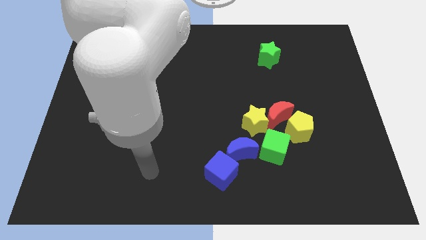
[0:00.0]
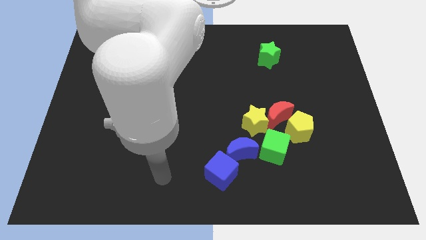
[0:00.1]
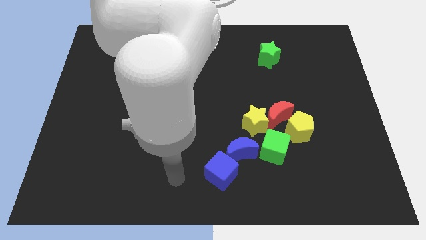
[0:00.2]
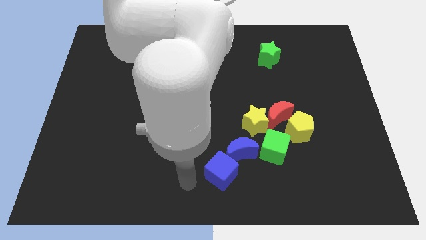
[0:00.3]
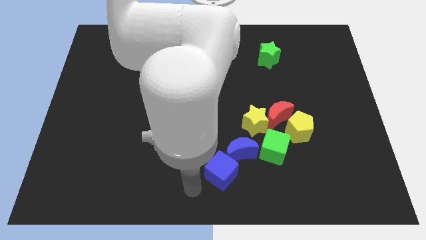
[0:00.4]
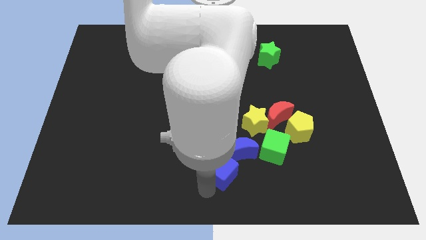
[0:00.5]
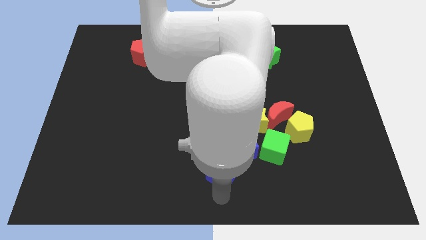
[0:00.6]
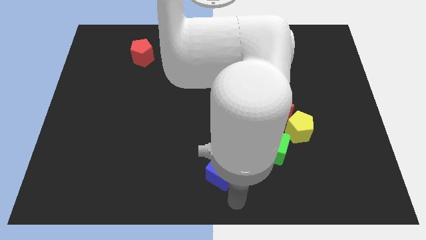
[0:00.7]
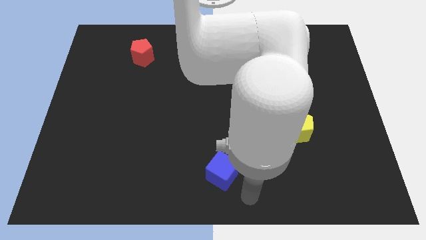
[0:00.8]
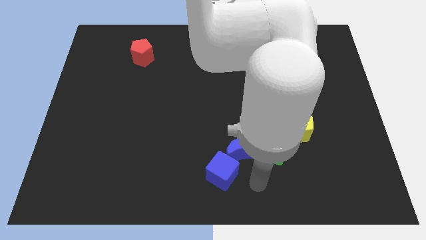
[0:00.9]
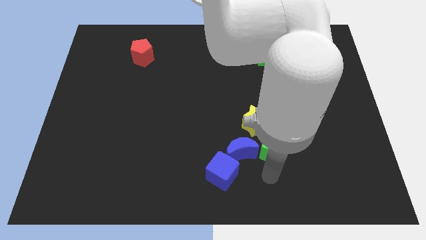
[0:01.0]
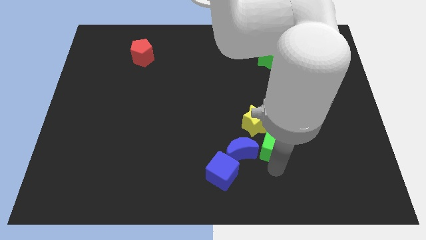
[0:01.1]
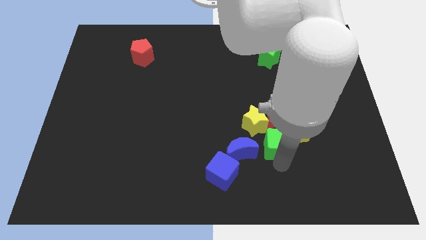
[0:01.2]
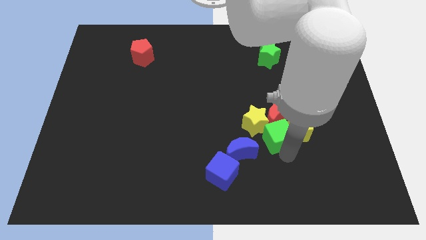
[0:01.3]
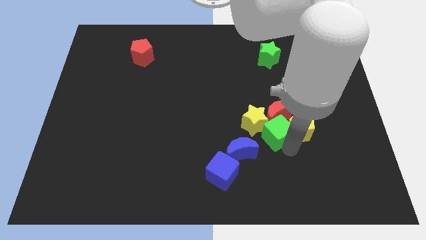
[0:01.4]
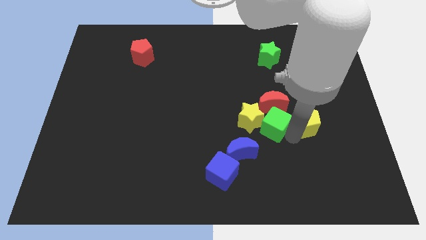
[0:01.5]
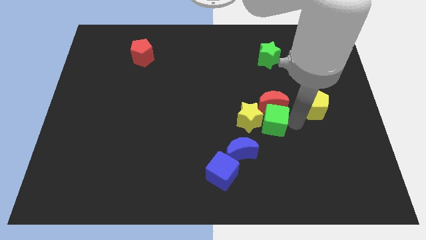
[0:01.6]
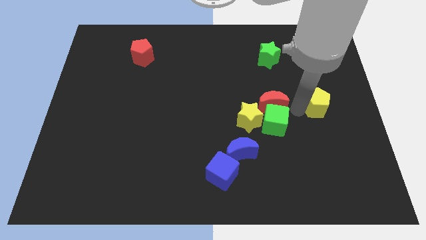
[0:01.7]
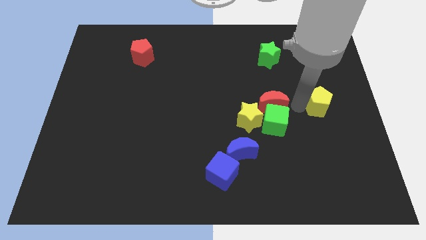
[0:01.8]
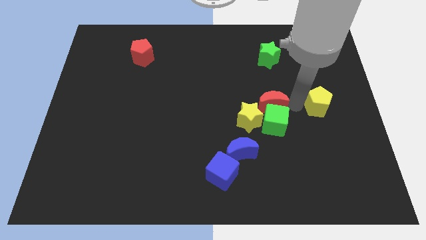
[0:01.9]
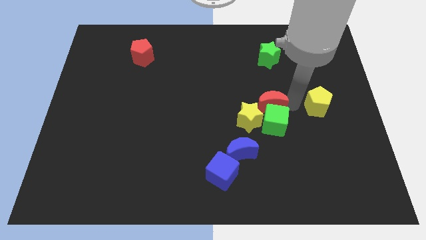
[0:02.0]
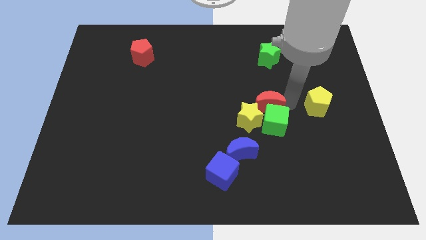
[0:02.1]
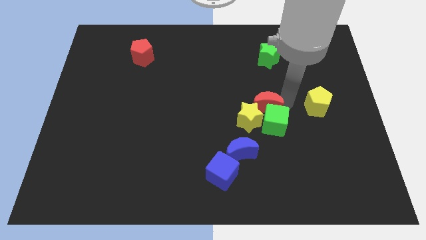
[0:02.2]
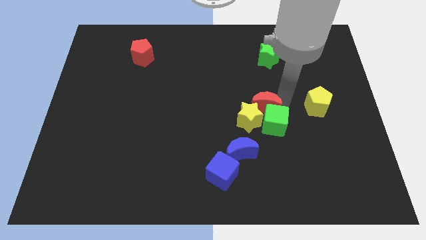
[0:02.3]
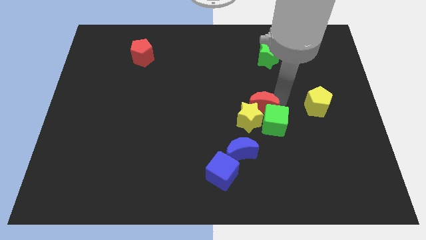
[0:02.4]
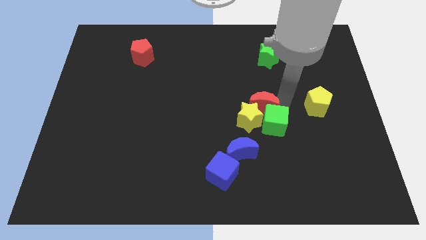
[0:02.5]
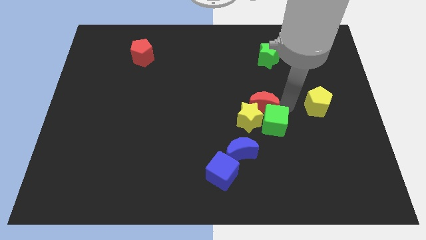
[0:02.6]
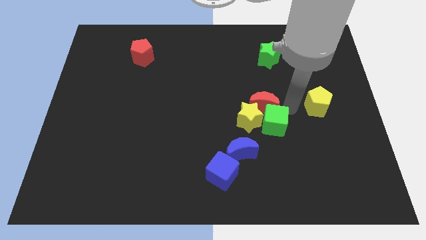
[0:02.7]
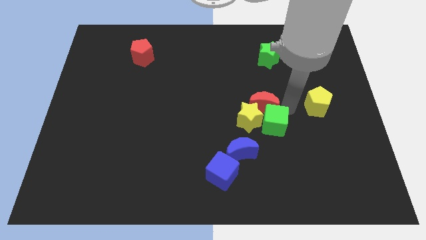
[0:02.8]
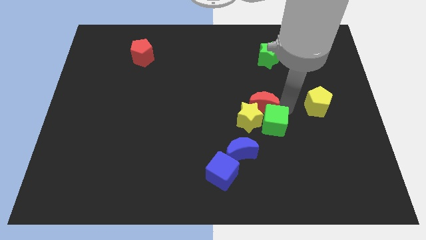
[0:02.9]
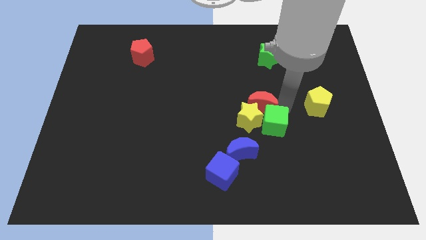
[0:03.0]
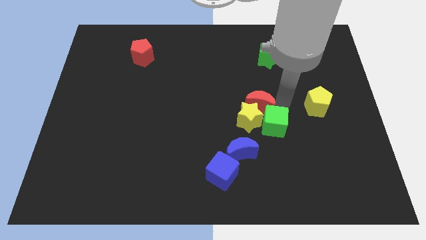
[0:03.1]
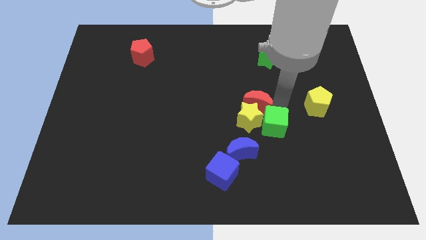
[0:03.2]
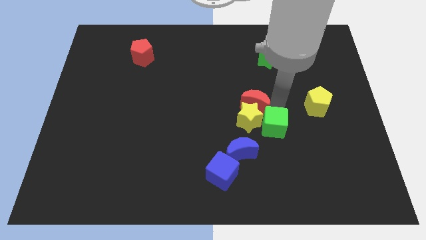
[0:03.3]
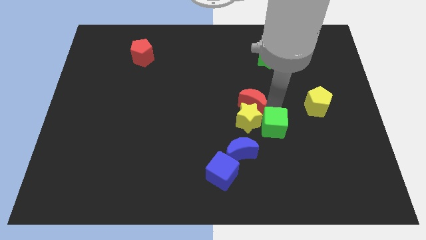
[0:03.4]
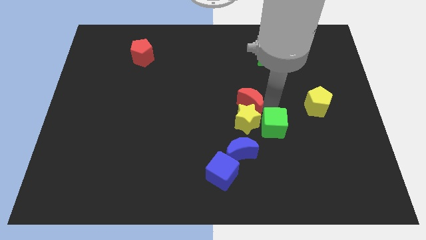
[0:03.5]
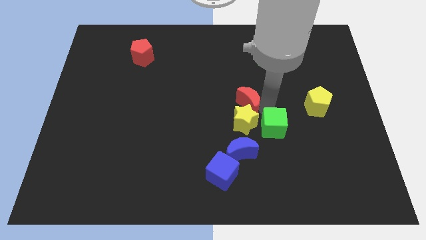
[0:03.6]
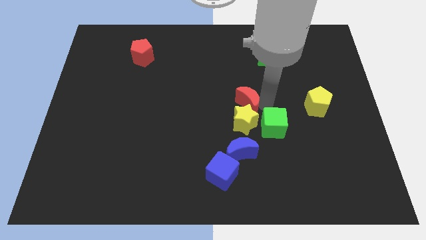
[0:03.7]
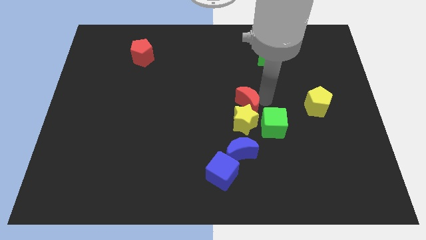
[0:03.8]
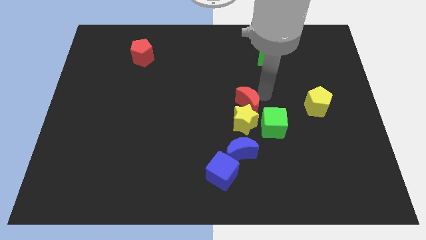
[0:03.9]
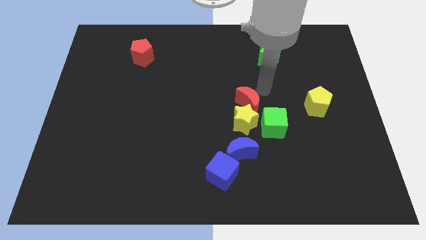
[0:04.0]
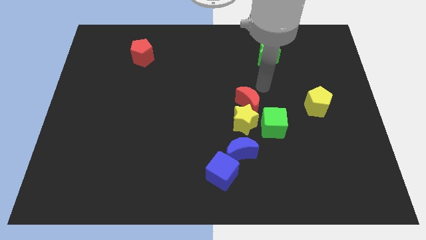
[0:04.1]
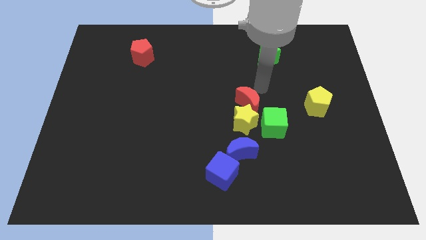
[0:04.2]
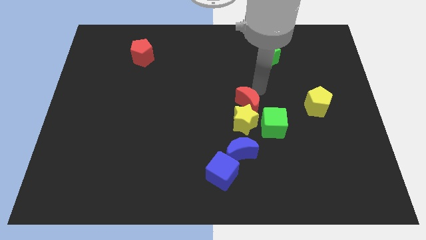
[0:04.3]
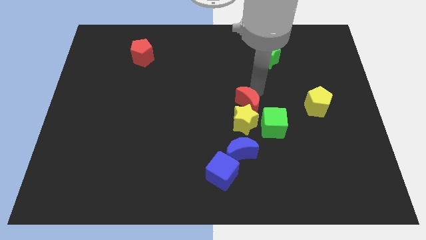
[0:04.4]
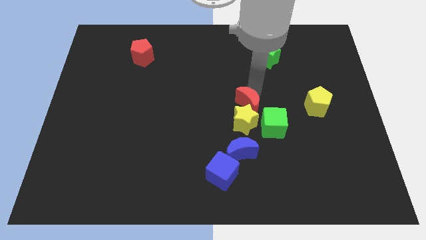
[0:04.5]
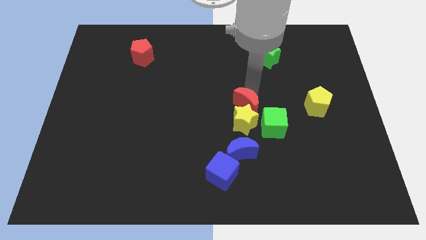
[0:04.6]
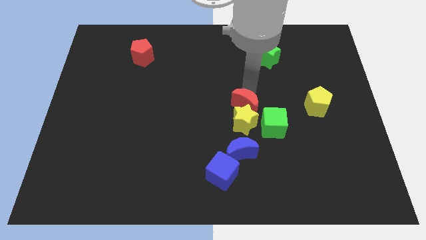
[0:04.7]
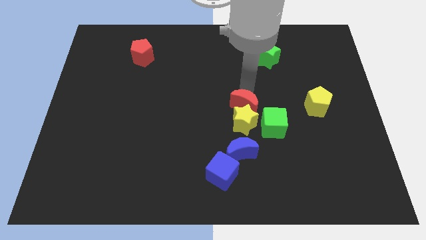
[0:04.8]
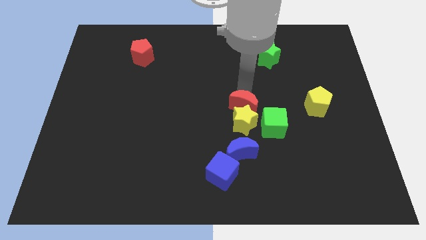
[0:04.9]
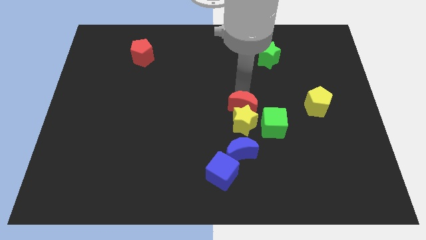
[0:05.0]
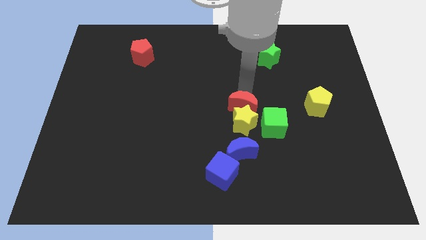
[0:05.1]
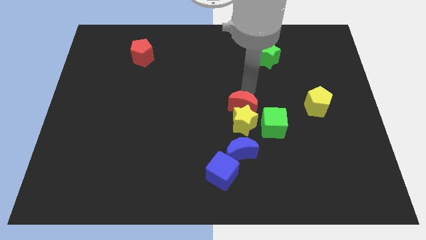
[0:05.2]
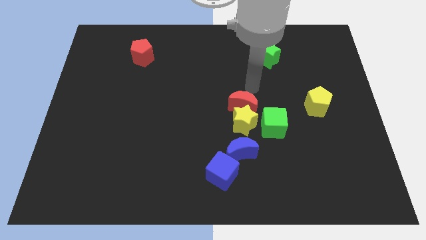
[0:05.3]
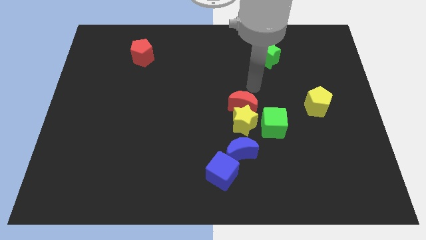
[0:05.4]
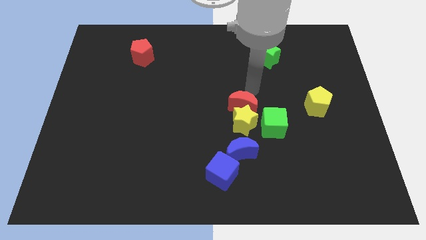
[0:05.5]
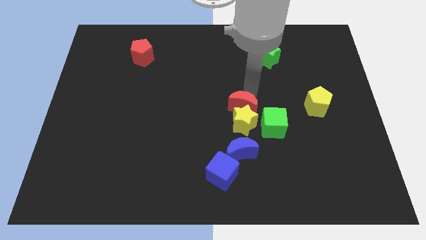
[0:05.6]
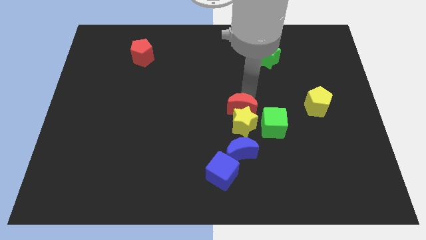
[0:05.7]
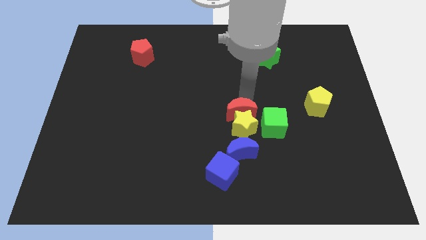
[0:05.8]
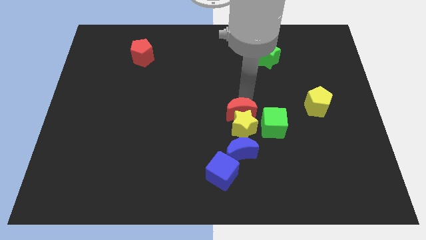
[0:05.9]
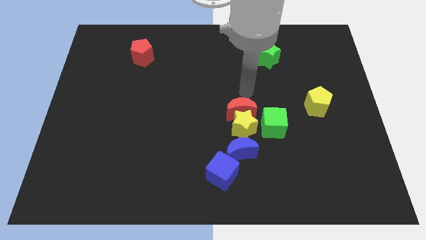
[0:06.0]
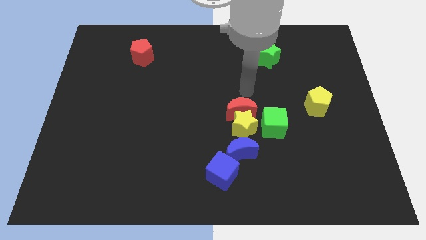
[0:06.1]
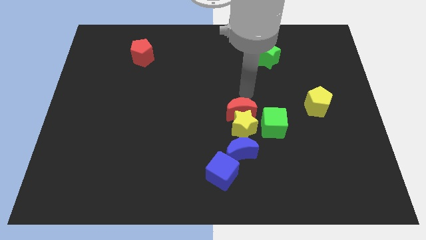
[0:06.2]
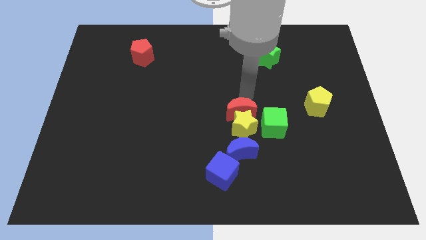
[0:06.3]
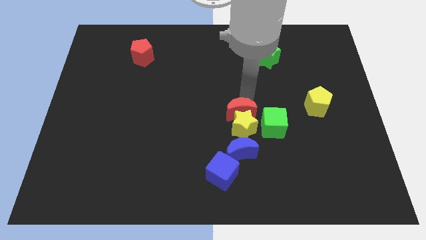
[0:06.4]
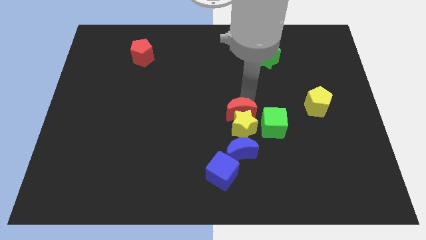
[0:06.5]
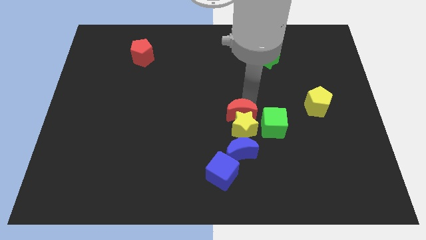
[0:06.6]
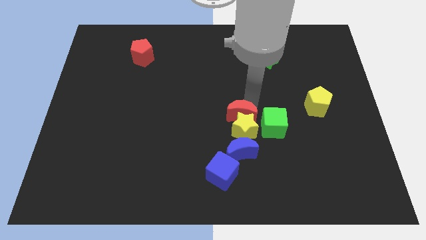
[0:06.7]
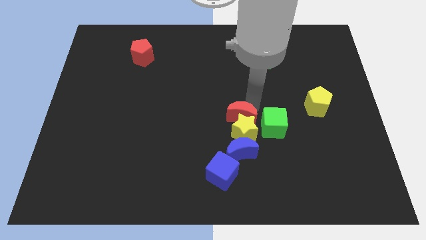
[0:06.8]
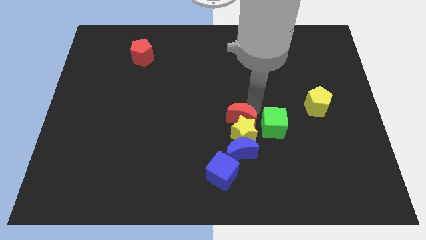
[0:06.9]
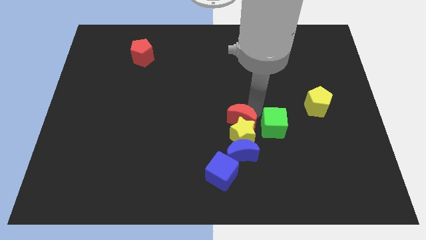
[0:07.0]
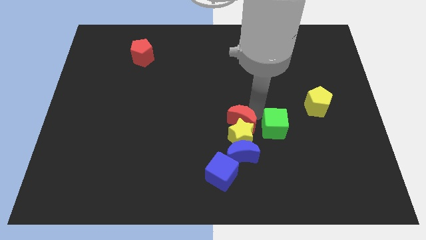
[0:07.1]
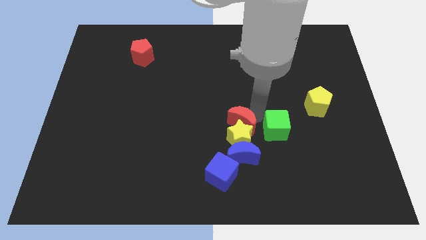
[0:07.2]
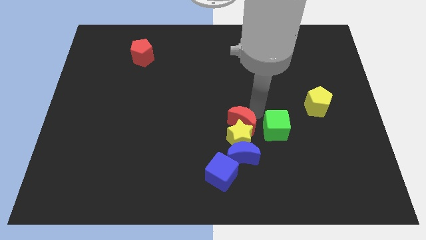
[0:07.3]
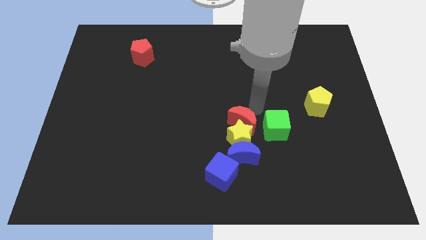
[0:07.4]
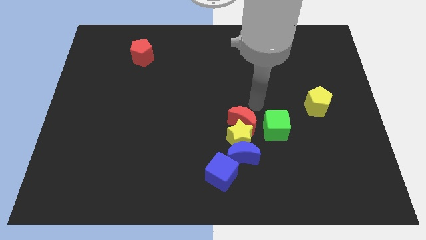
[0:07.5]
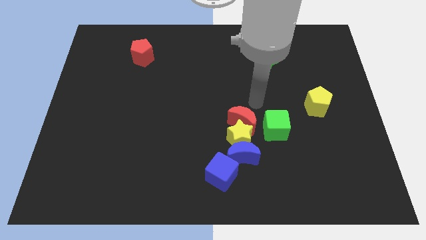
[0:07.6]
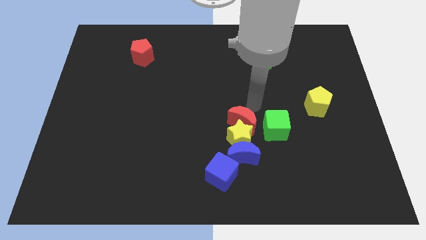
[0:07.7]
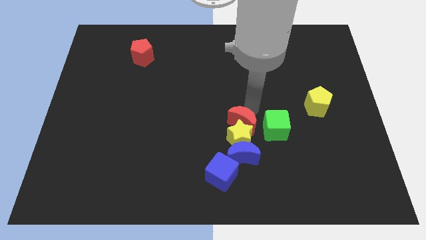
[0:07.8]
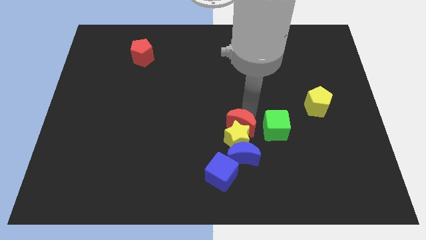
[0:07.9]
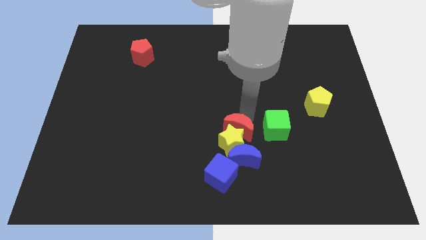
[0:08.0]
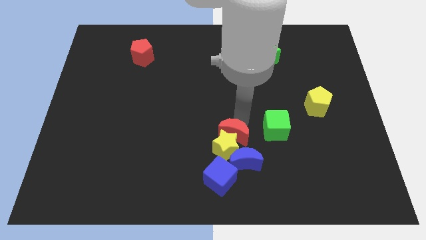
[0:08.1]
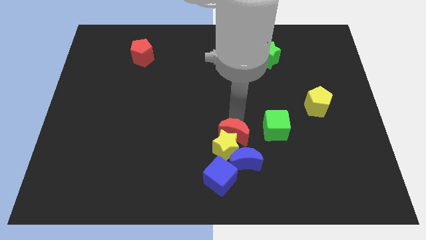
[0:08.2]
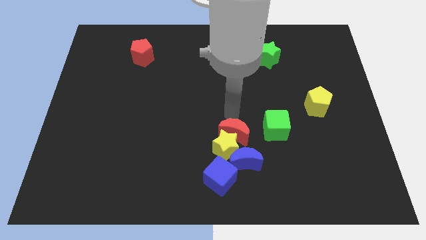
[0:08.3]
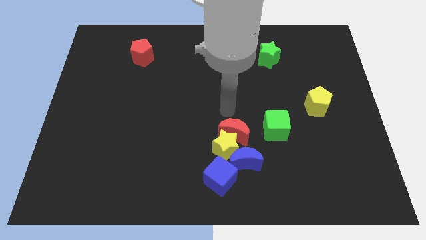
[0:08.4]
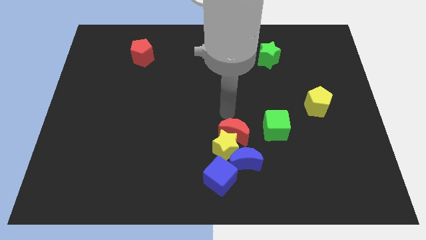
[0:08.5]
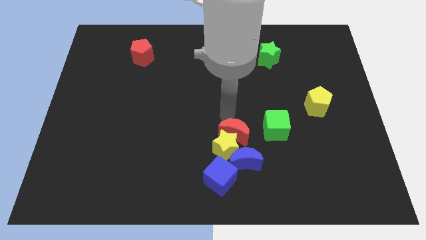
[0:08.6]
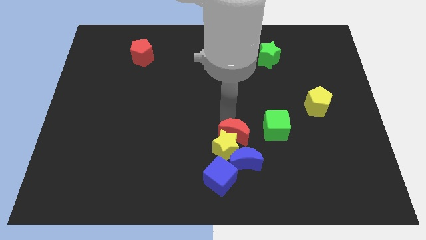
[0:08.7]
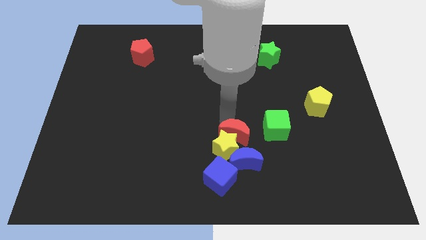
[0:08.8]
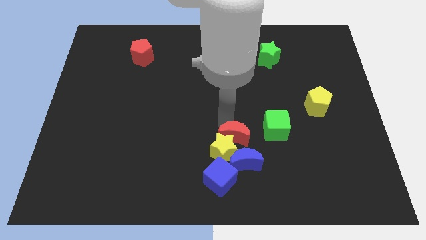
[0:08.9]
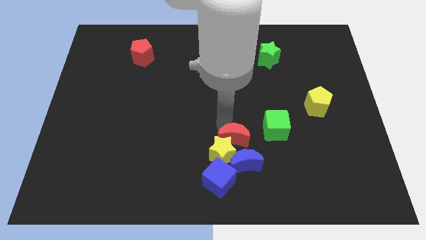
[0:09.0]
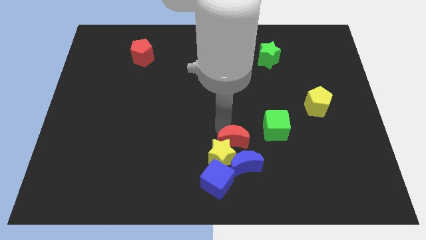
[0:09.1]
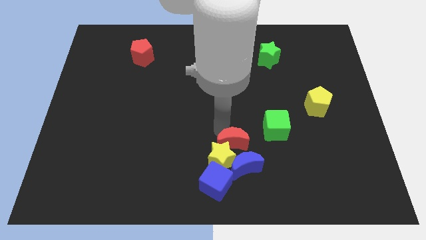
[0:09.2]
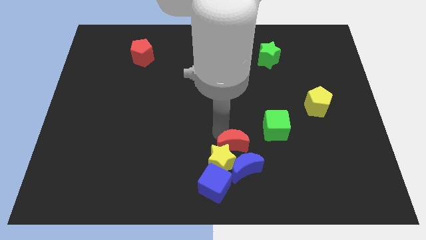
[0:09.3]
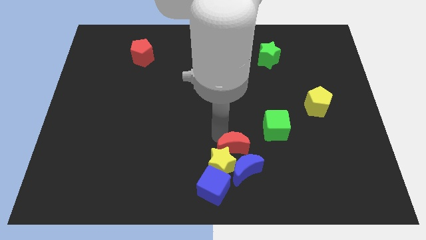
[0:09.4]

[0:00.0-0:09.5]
put the red moon towards the blue moon
